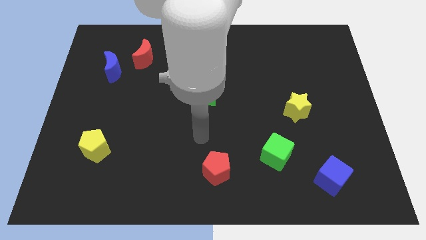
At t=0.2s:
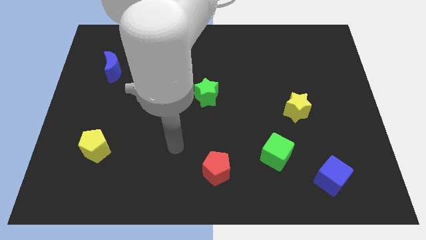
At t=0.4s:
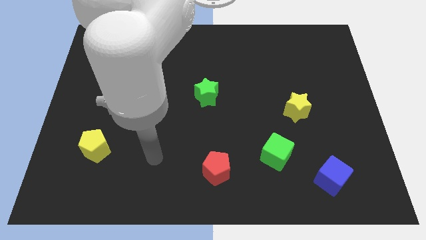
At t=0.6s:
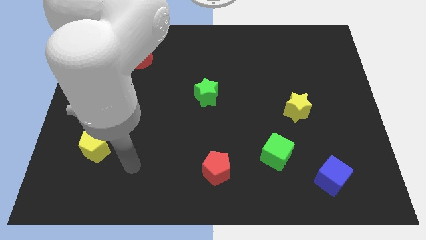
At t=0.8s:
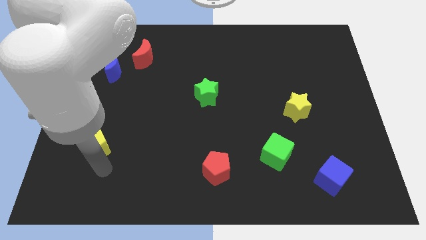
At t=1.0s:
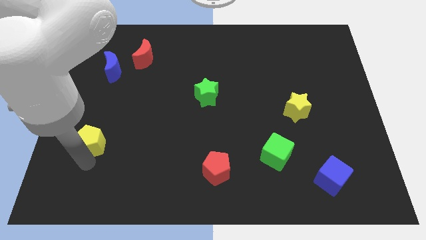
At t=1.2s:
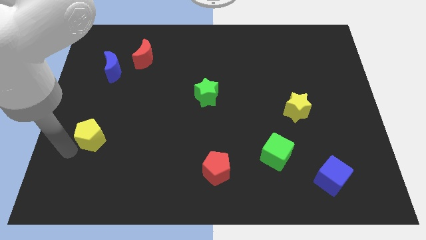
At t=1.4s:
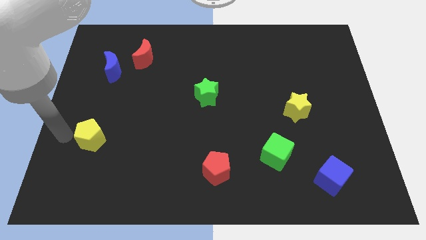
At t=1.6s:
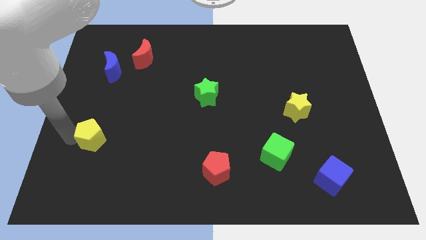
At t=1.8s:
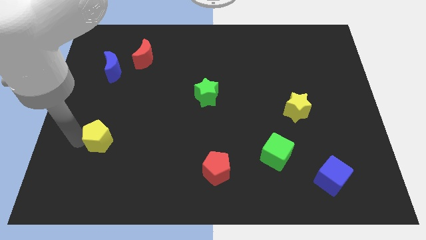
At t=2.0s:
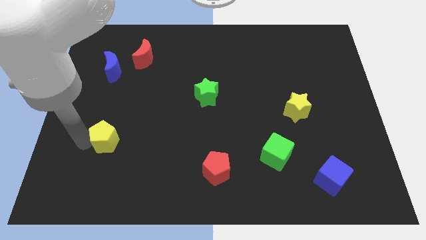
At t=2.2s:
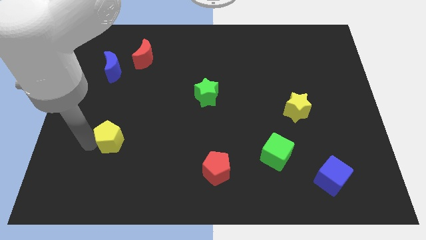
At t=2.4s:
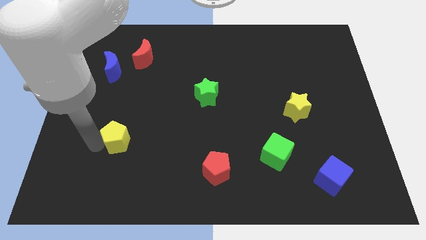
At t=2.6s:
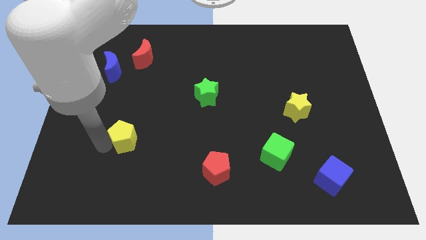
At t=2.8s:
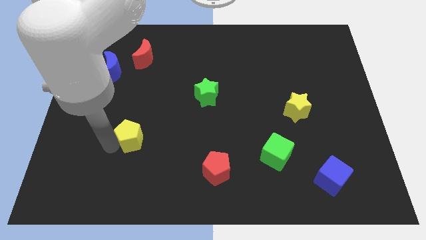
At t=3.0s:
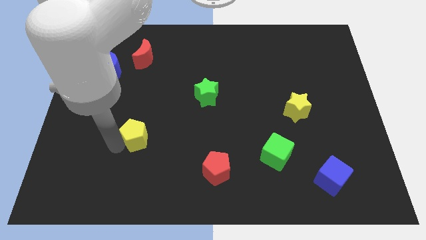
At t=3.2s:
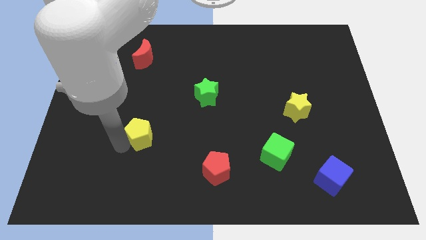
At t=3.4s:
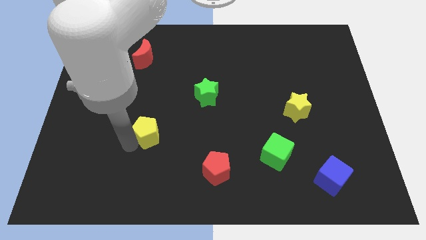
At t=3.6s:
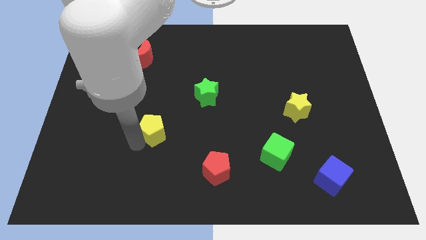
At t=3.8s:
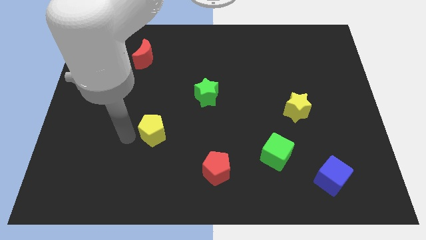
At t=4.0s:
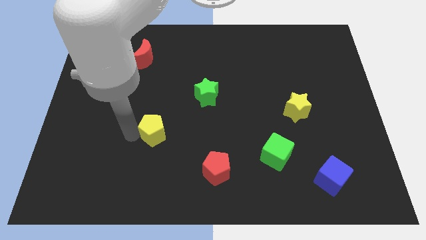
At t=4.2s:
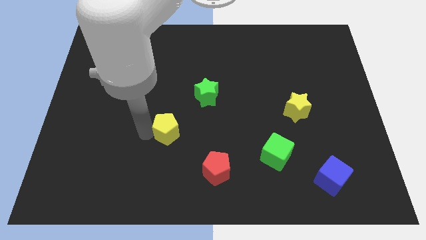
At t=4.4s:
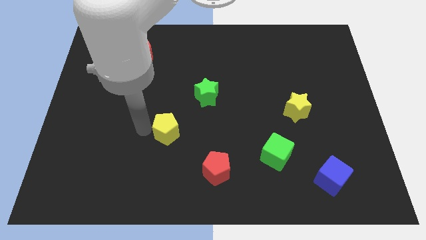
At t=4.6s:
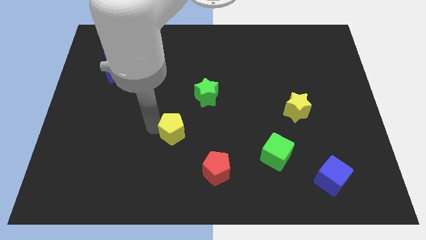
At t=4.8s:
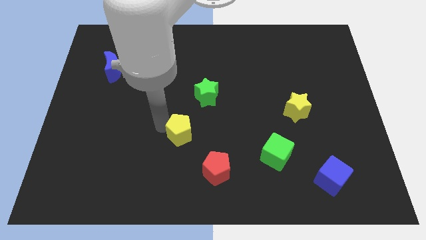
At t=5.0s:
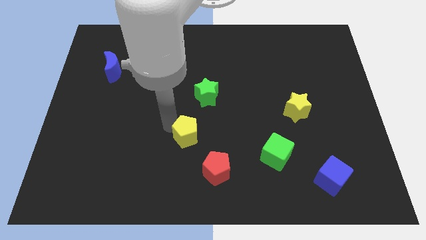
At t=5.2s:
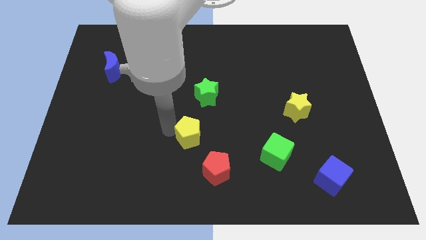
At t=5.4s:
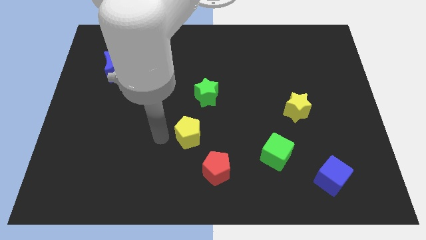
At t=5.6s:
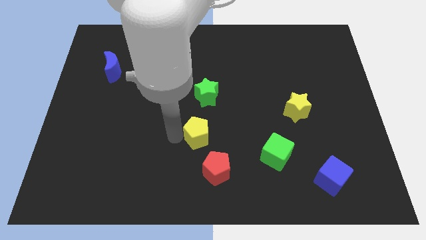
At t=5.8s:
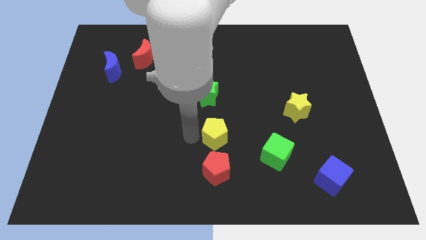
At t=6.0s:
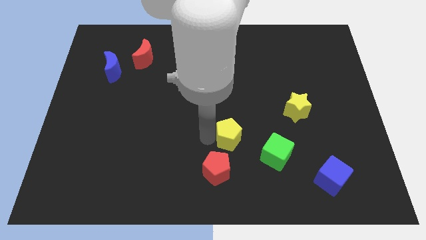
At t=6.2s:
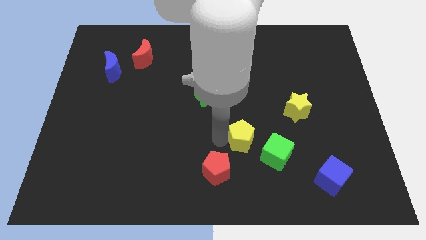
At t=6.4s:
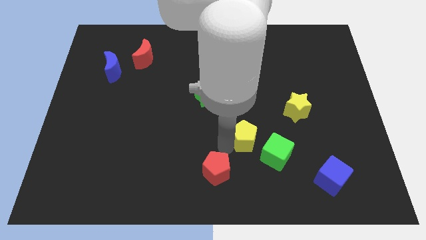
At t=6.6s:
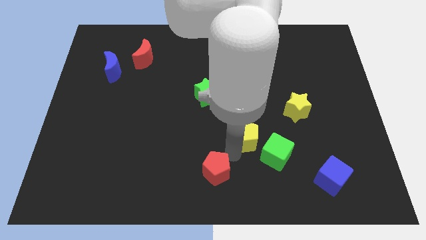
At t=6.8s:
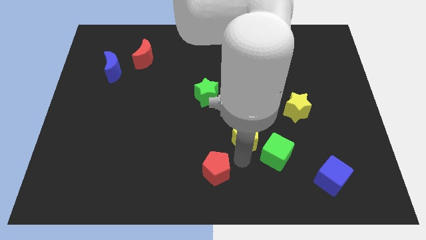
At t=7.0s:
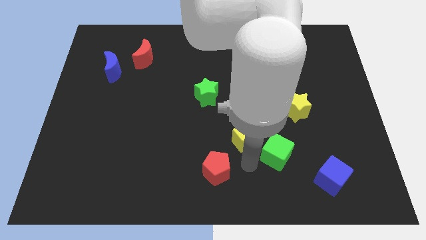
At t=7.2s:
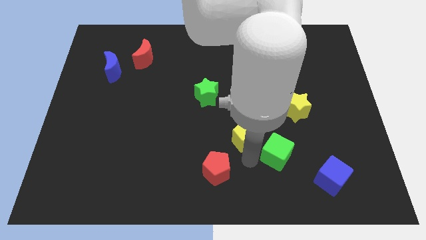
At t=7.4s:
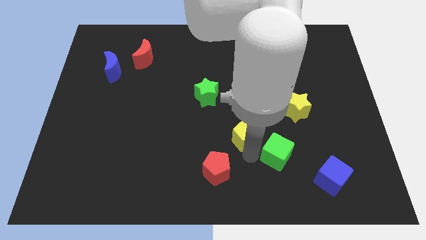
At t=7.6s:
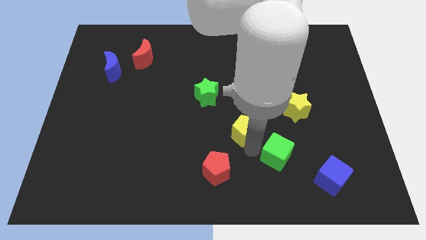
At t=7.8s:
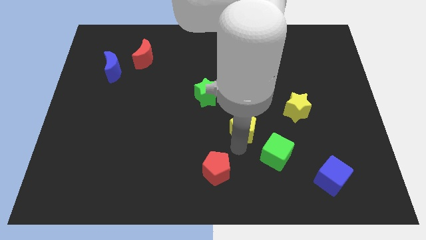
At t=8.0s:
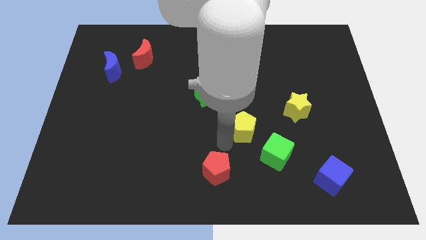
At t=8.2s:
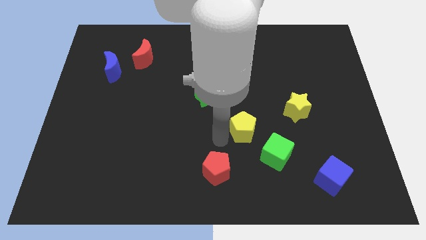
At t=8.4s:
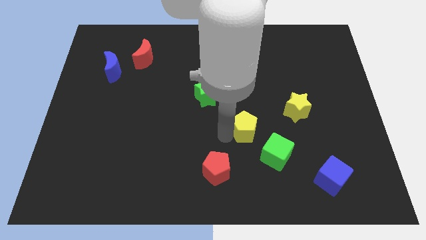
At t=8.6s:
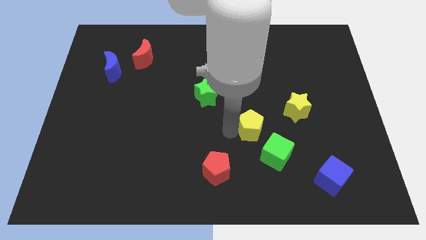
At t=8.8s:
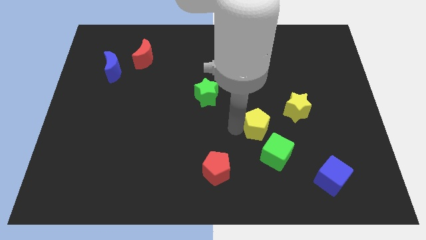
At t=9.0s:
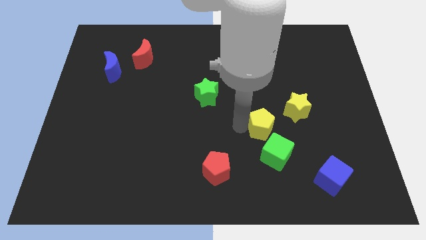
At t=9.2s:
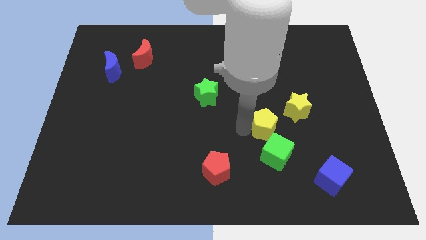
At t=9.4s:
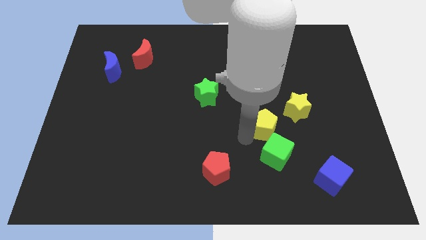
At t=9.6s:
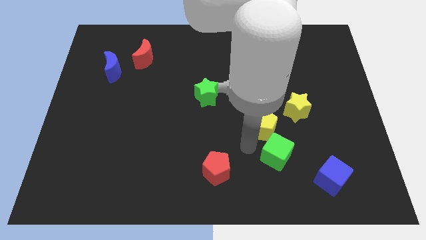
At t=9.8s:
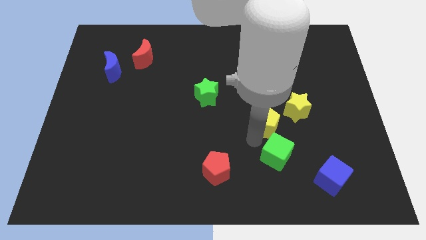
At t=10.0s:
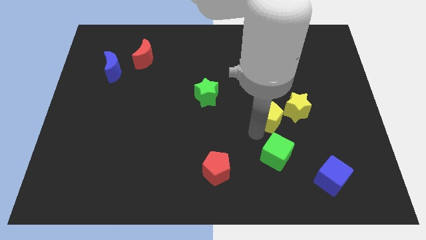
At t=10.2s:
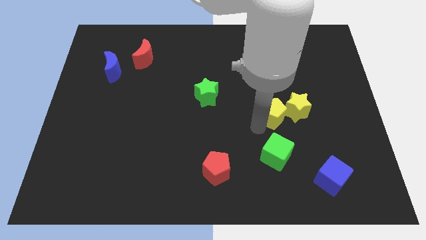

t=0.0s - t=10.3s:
move the yellow pentagon to the yellow star

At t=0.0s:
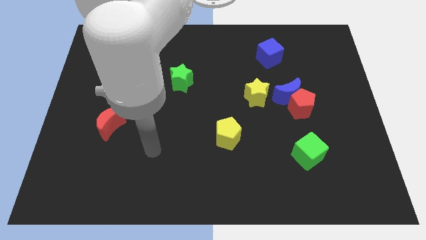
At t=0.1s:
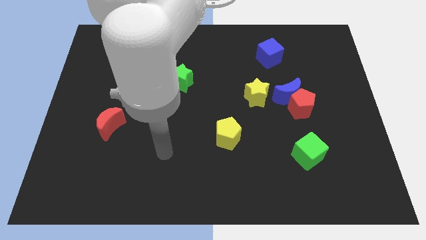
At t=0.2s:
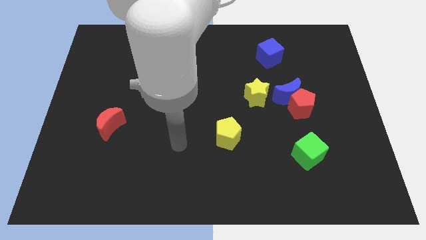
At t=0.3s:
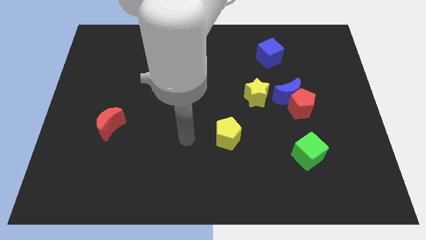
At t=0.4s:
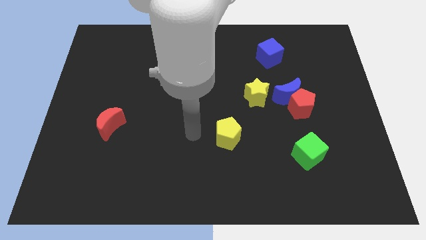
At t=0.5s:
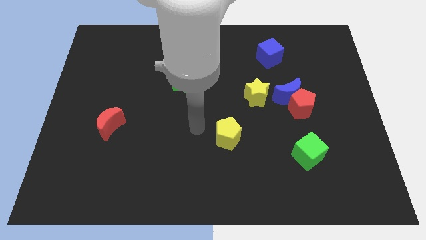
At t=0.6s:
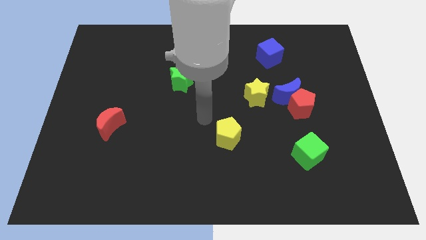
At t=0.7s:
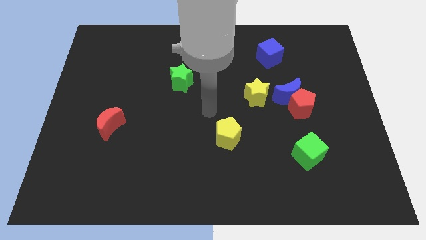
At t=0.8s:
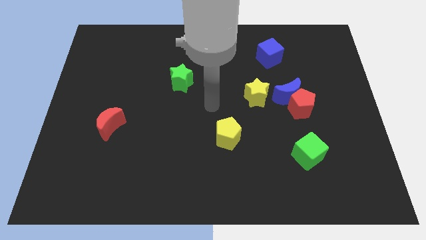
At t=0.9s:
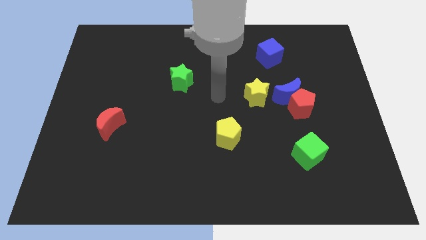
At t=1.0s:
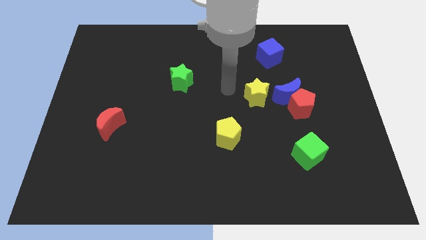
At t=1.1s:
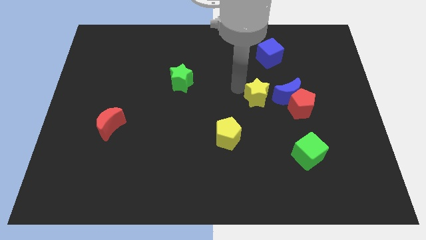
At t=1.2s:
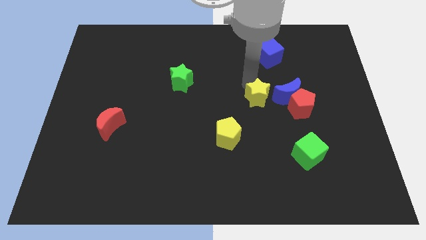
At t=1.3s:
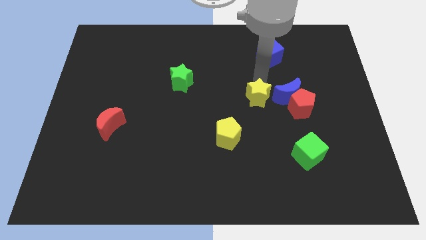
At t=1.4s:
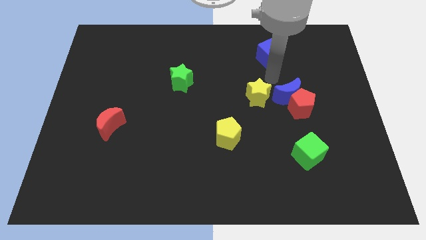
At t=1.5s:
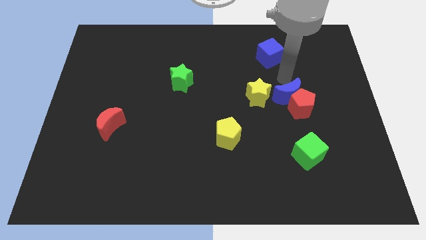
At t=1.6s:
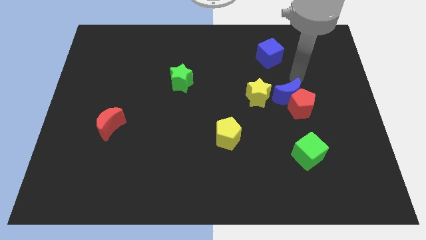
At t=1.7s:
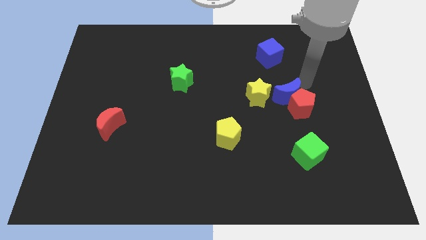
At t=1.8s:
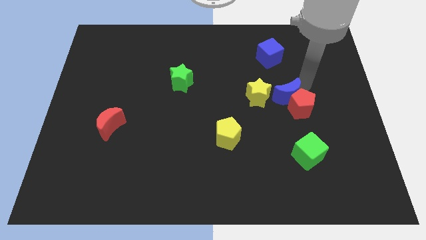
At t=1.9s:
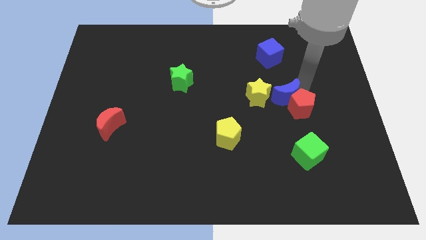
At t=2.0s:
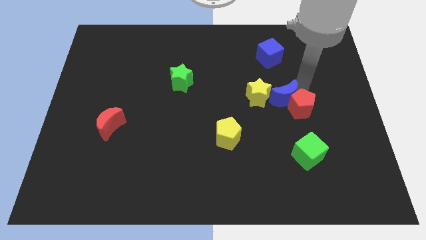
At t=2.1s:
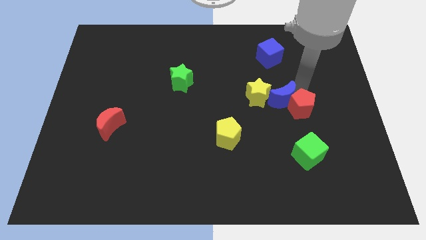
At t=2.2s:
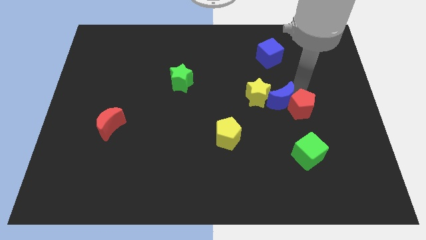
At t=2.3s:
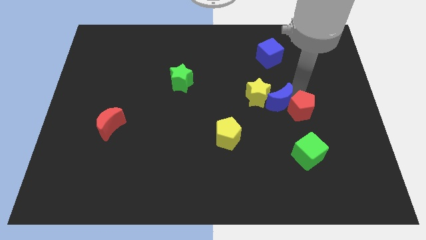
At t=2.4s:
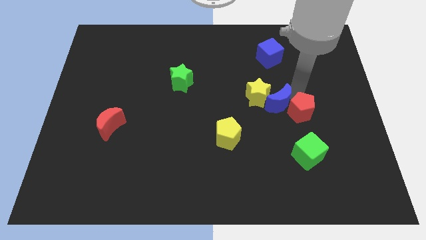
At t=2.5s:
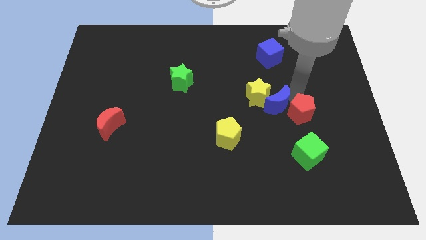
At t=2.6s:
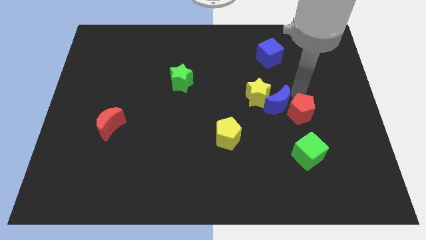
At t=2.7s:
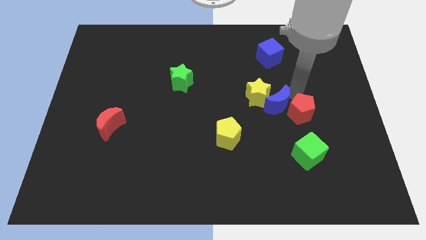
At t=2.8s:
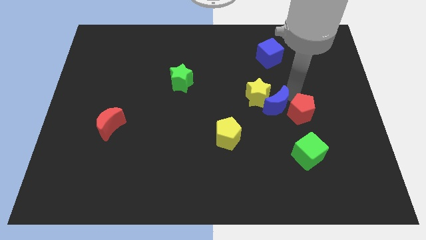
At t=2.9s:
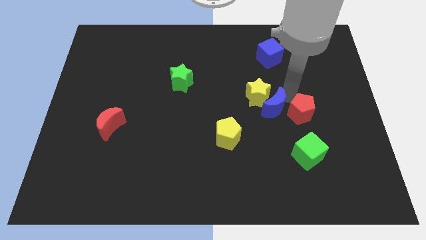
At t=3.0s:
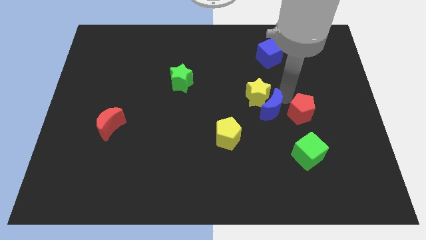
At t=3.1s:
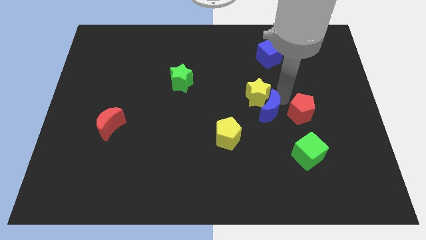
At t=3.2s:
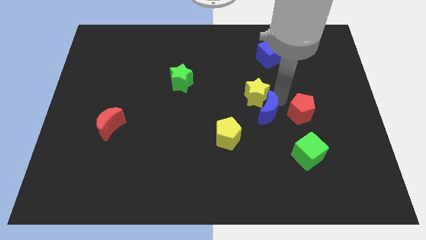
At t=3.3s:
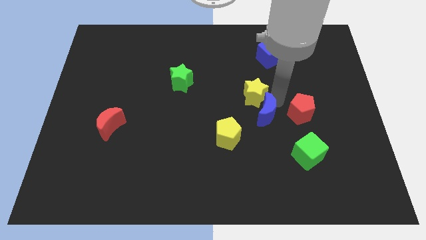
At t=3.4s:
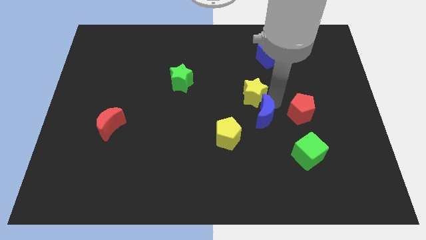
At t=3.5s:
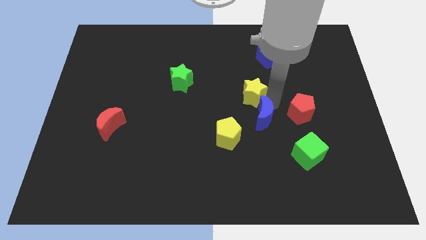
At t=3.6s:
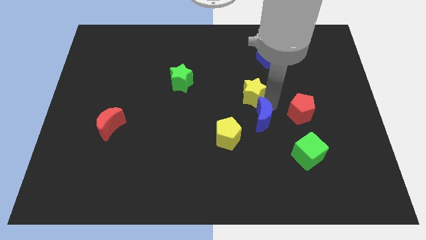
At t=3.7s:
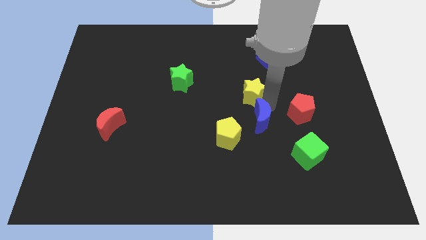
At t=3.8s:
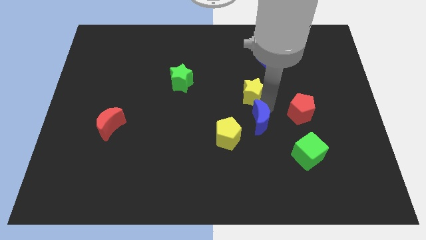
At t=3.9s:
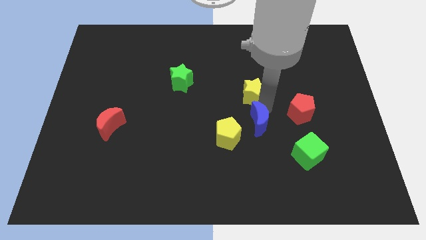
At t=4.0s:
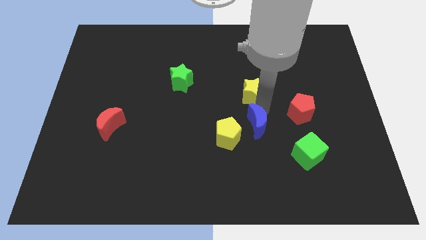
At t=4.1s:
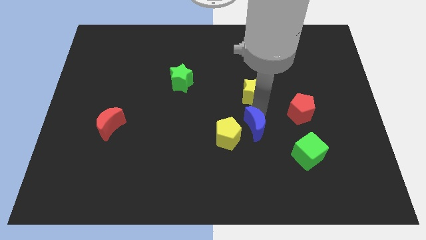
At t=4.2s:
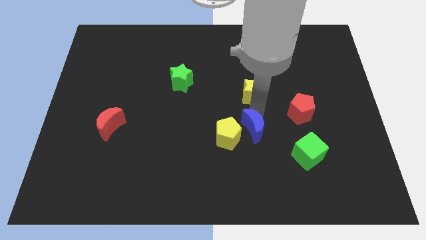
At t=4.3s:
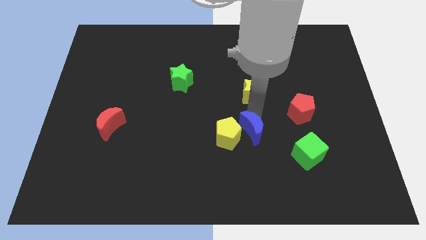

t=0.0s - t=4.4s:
put the blue moon close to the yellow pentagon
